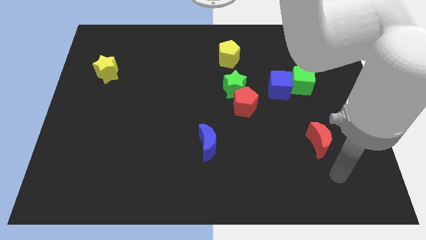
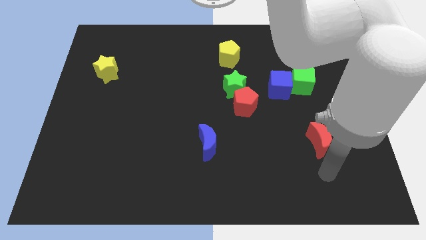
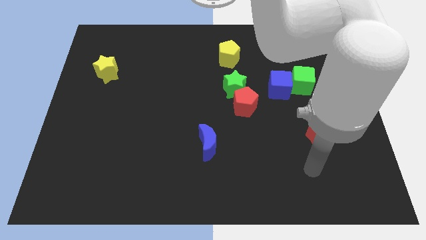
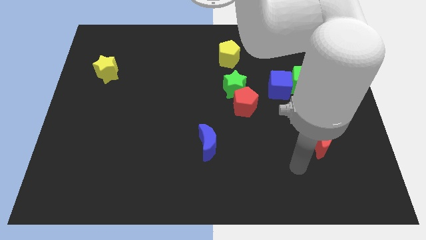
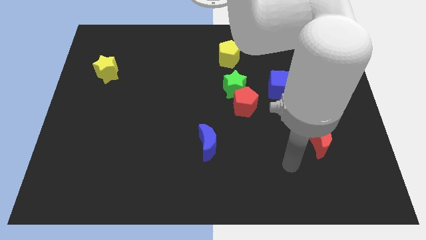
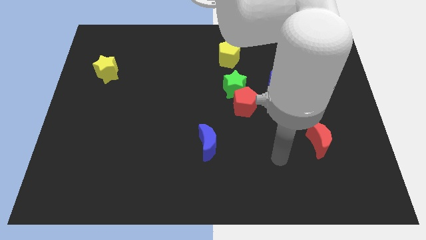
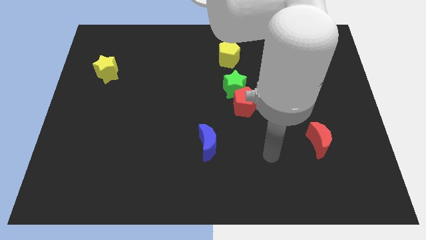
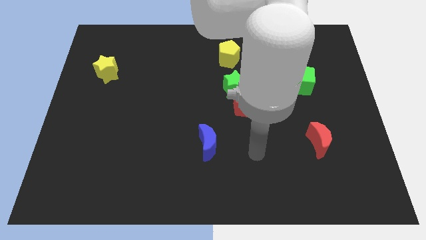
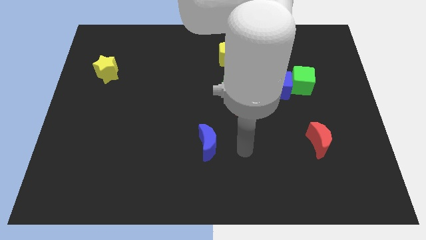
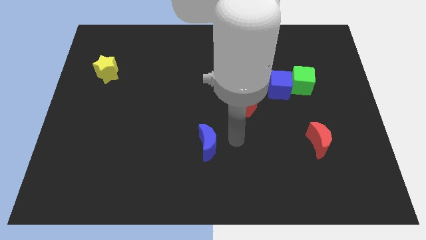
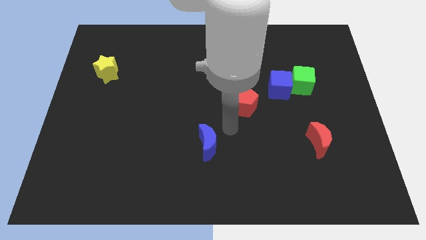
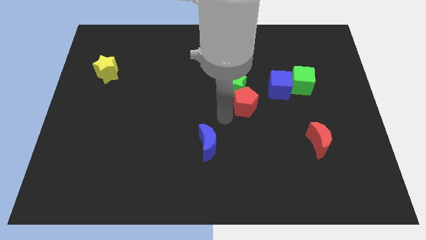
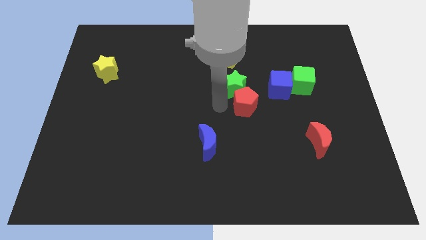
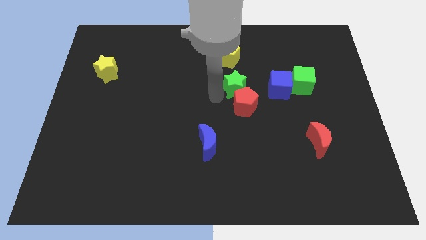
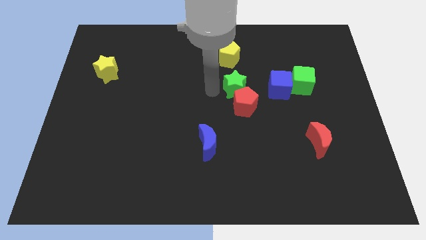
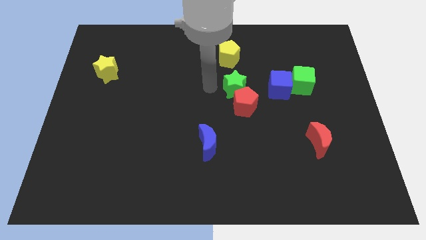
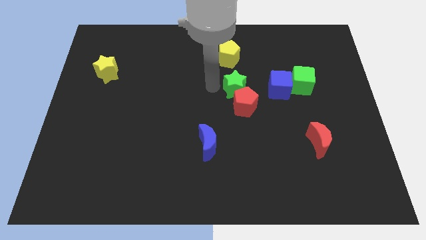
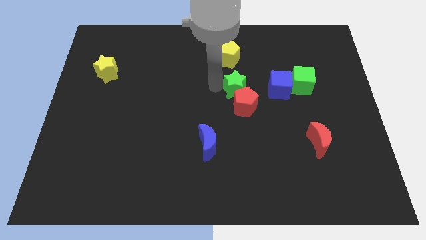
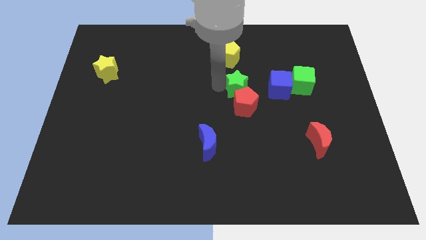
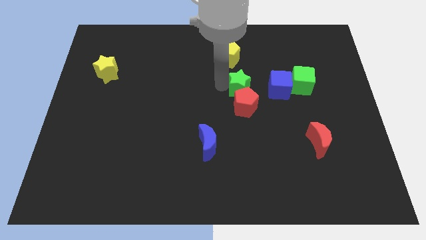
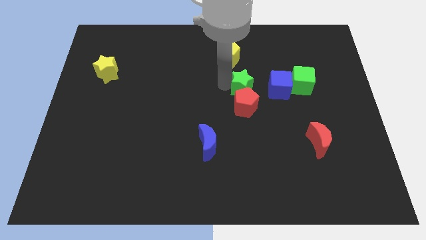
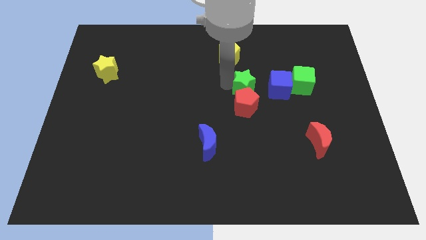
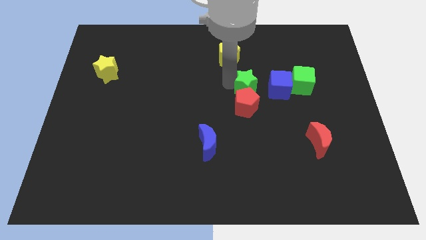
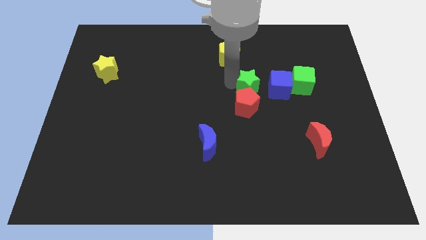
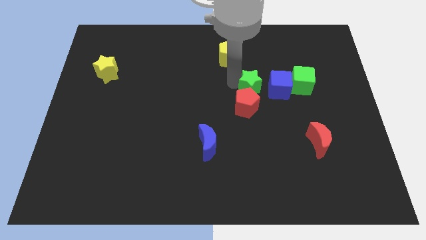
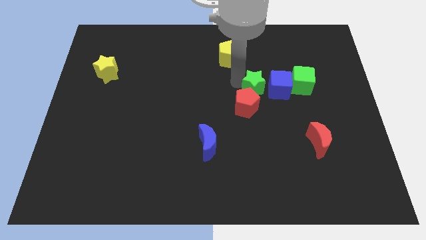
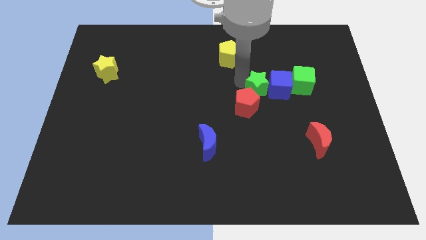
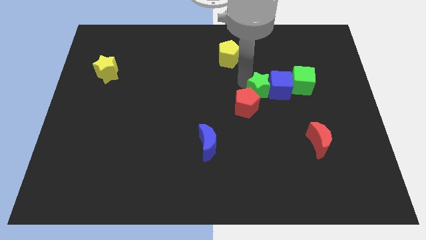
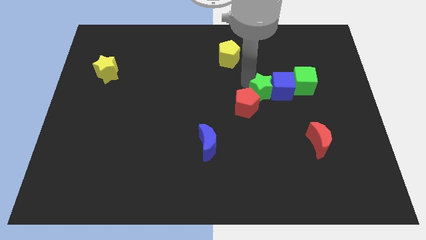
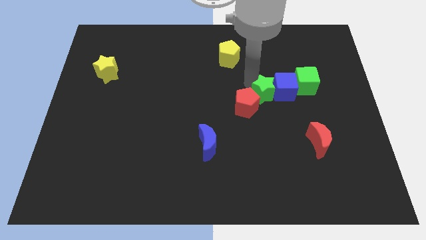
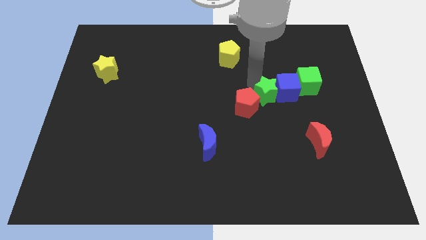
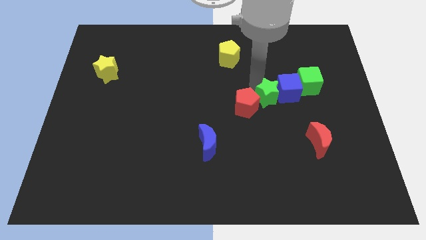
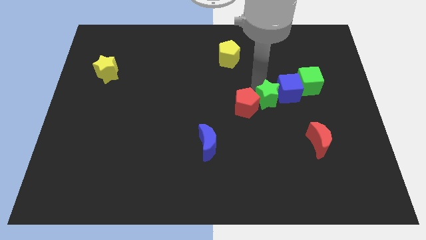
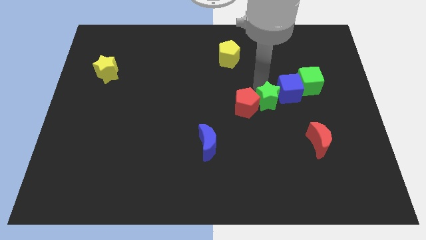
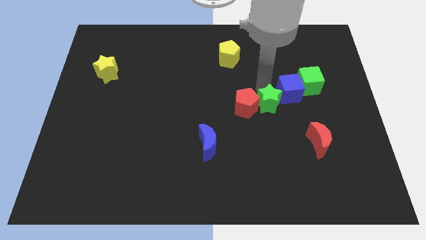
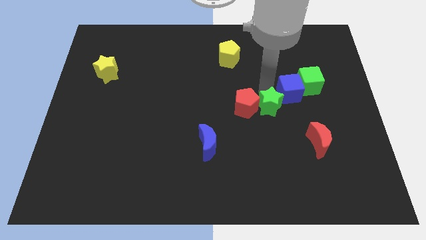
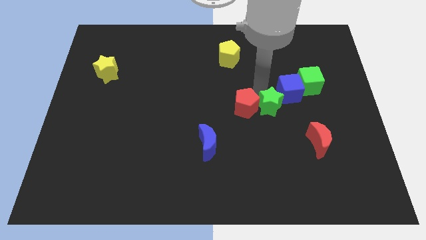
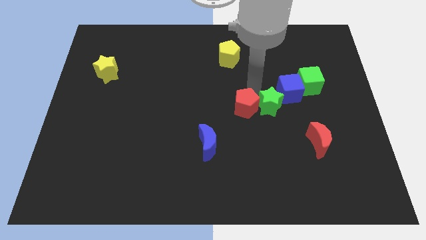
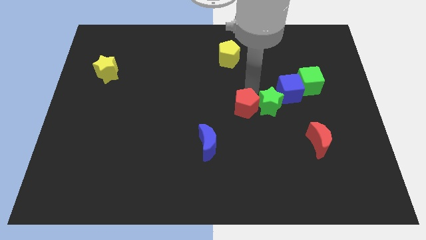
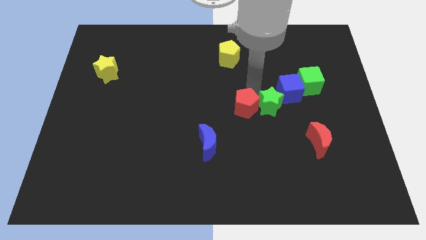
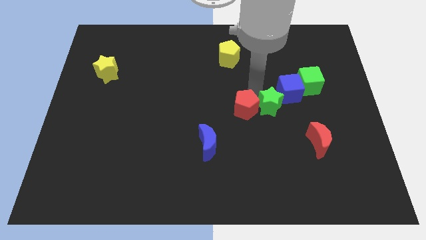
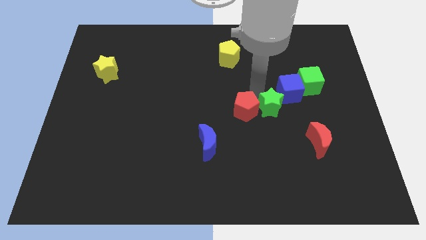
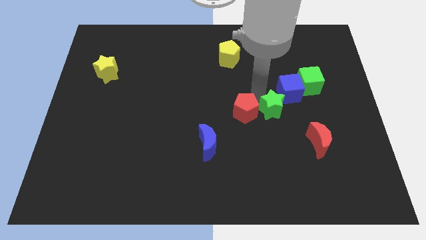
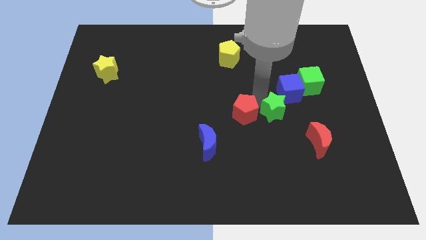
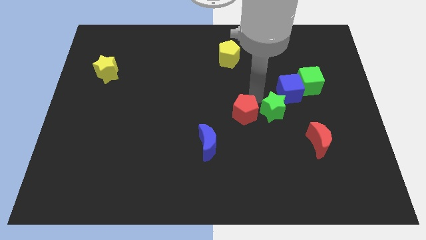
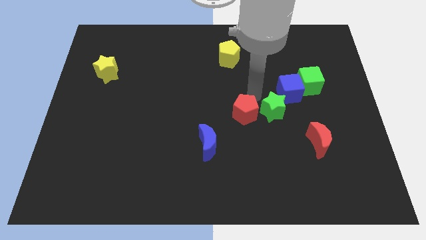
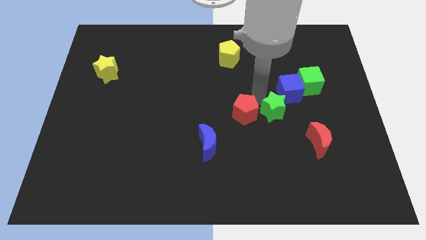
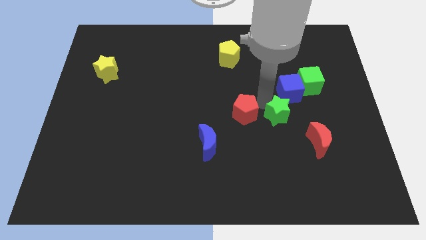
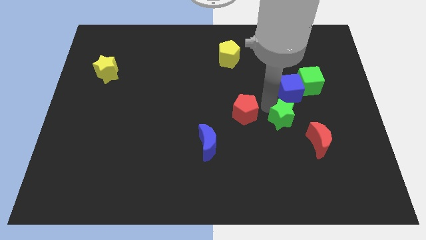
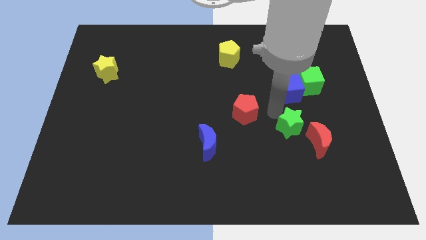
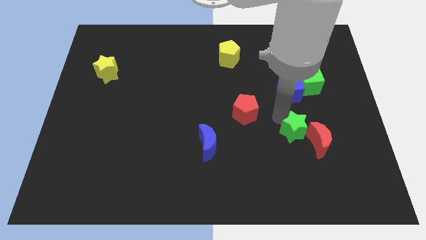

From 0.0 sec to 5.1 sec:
slide the green star to the red moon

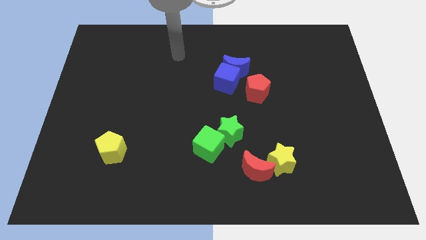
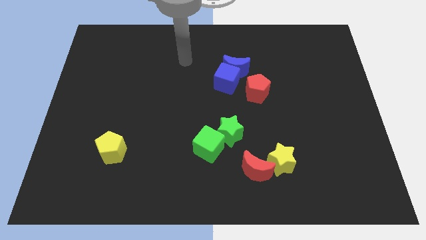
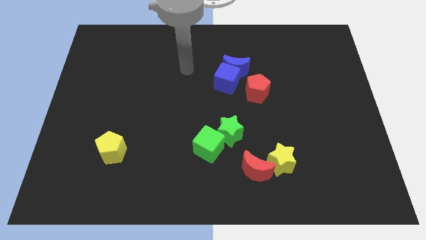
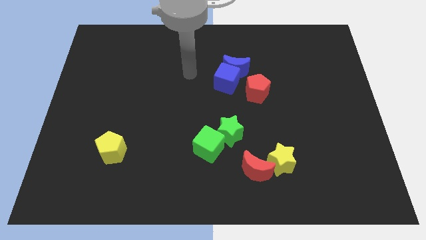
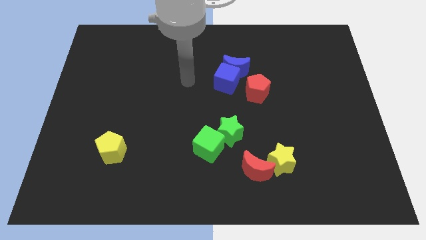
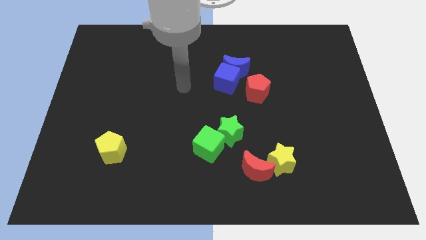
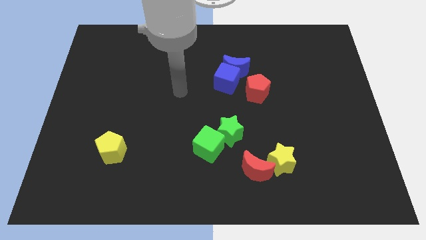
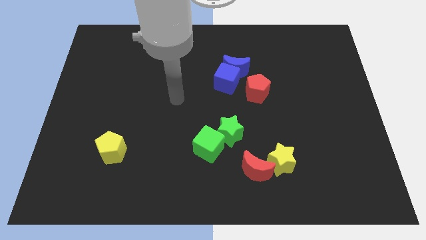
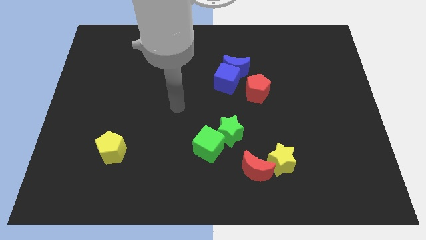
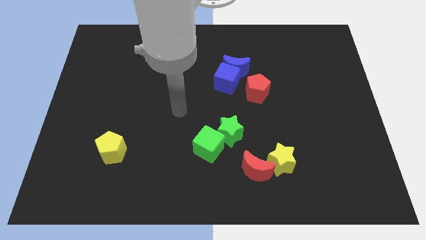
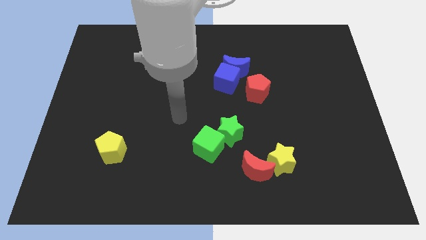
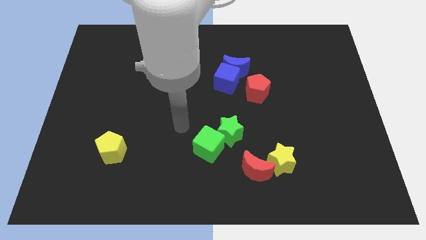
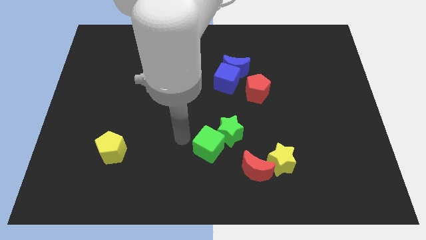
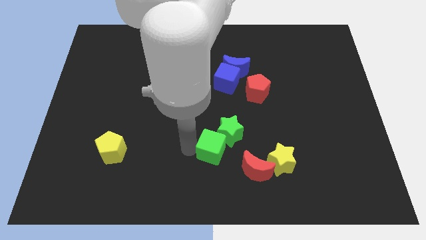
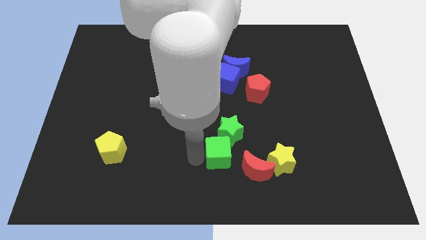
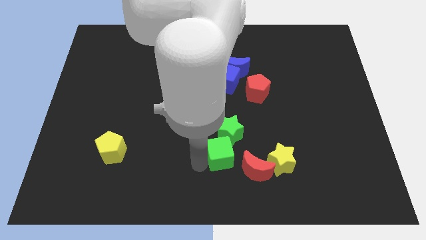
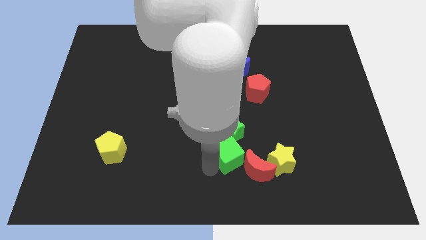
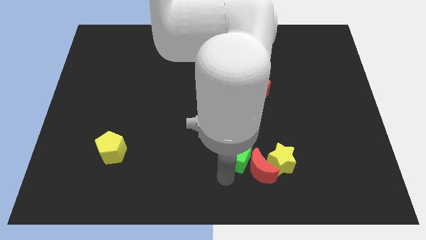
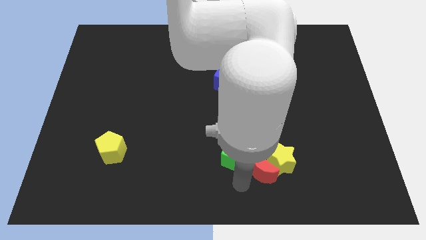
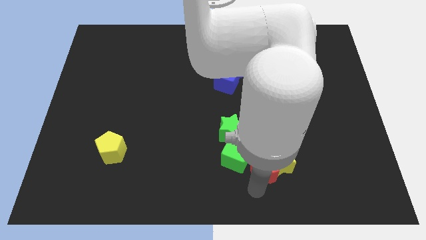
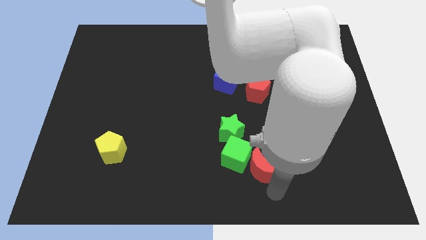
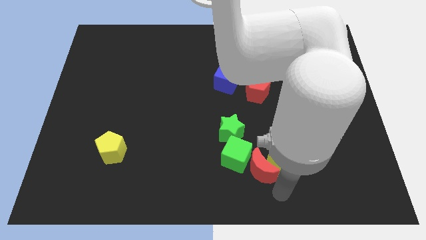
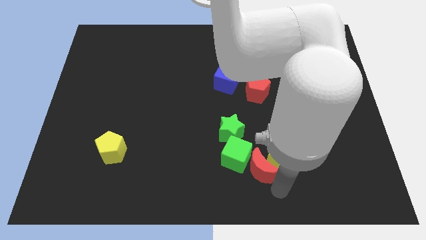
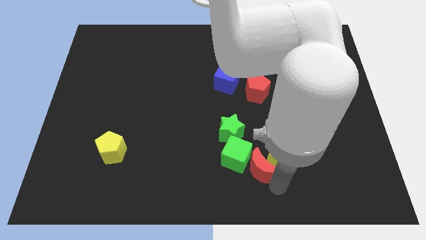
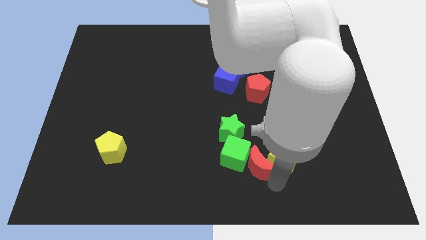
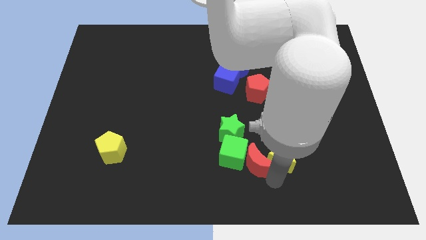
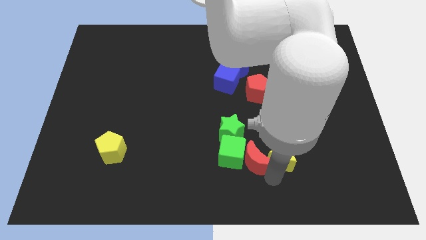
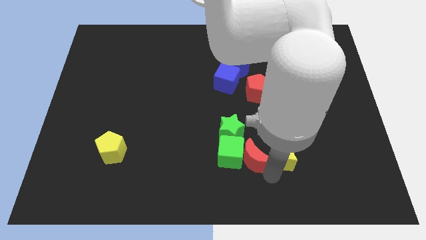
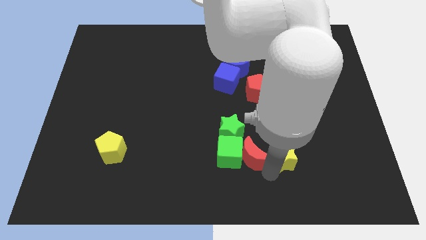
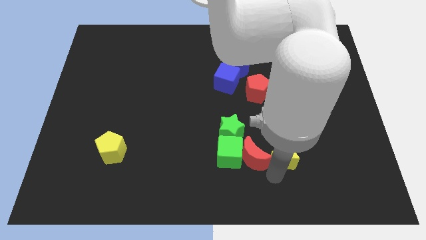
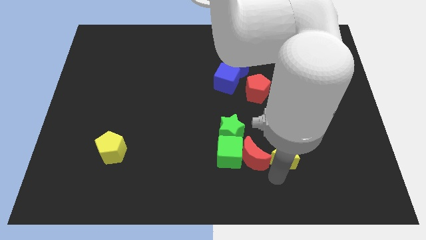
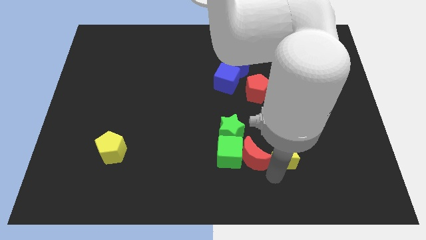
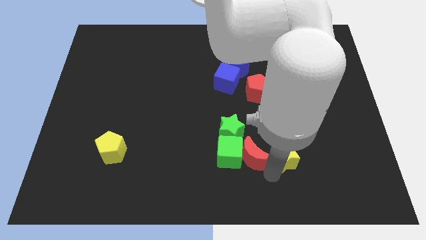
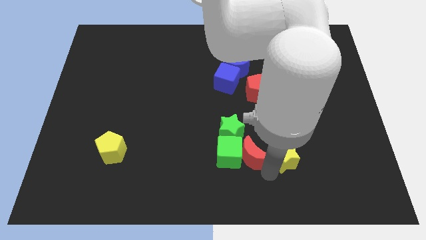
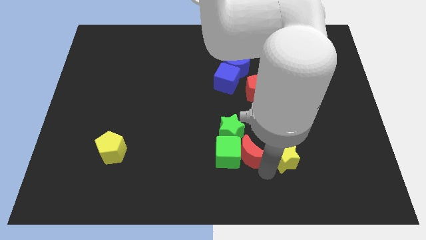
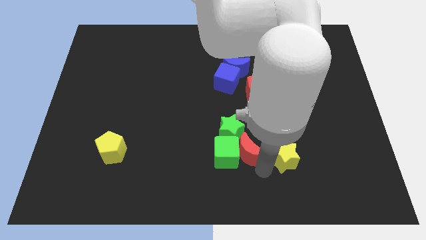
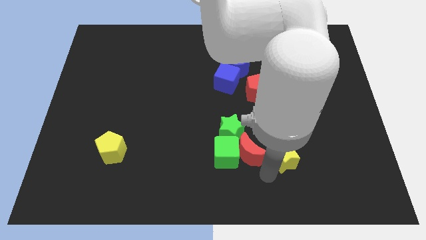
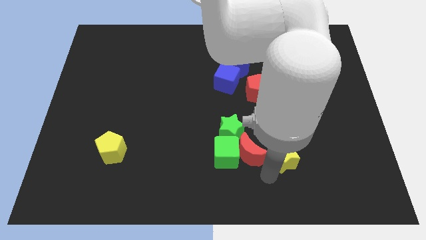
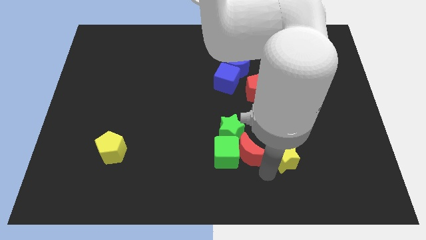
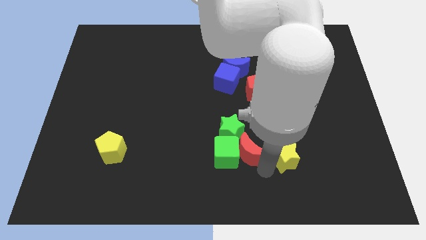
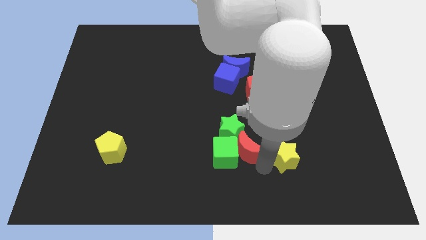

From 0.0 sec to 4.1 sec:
slide the red moon towards the green star
